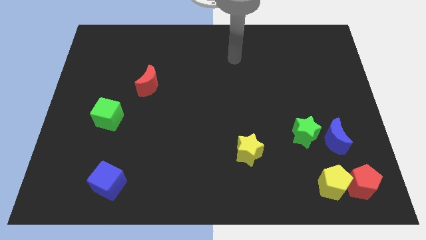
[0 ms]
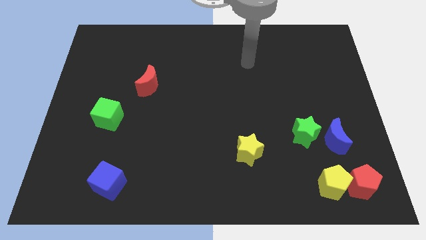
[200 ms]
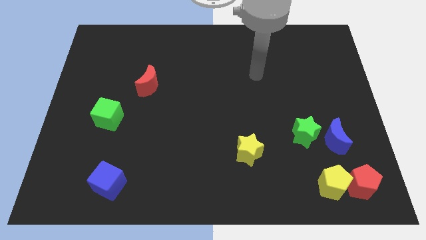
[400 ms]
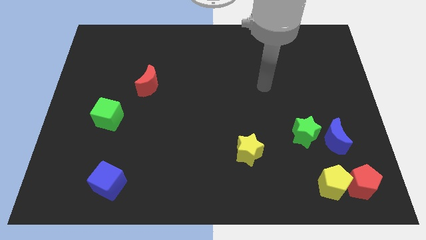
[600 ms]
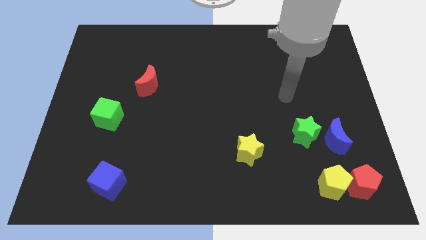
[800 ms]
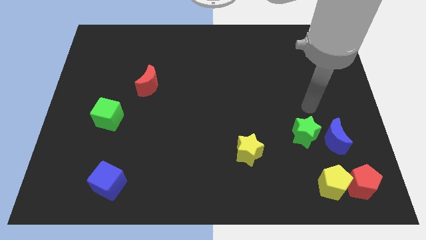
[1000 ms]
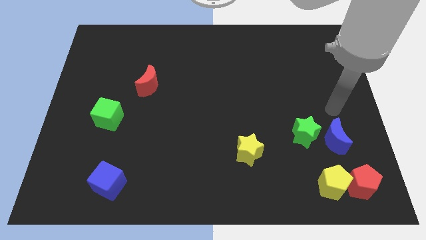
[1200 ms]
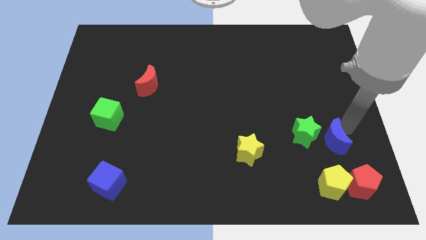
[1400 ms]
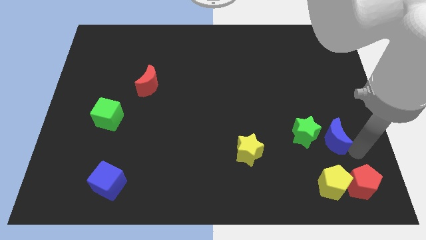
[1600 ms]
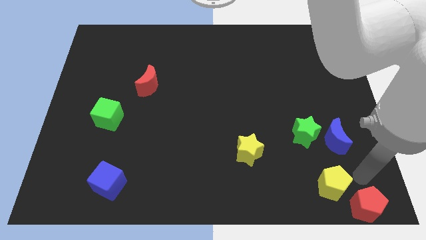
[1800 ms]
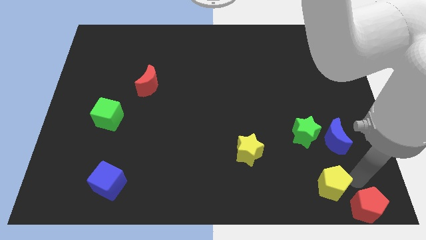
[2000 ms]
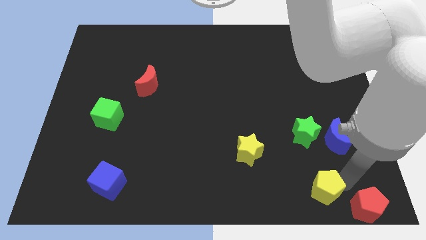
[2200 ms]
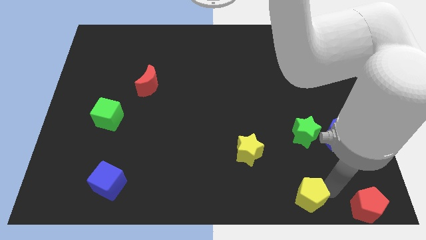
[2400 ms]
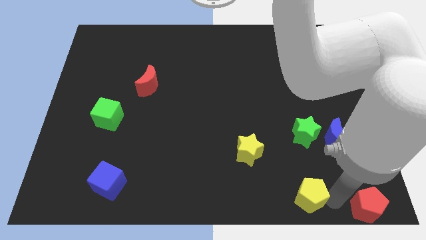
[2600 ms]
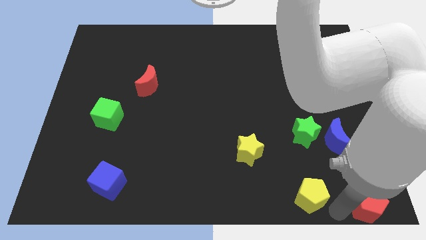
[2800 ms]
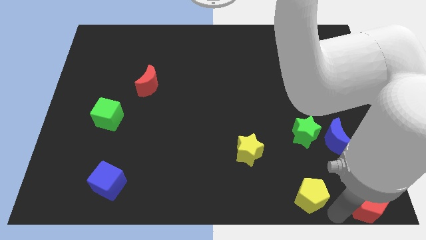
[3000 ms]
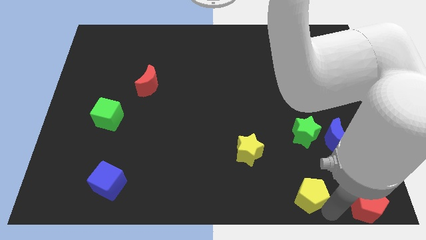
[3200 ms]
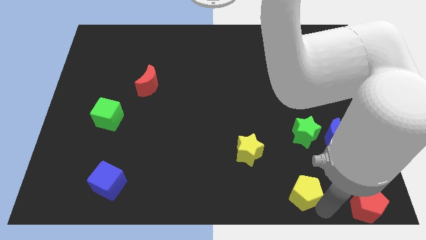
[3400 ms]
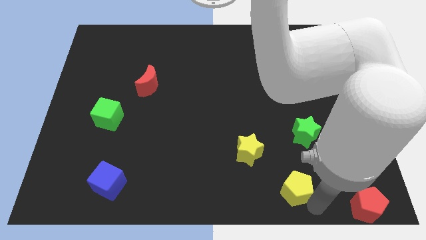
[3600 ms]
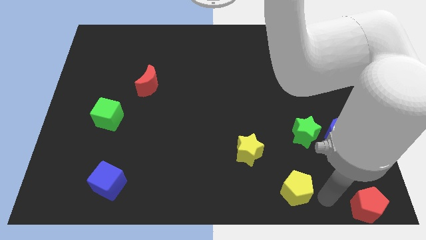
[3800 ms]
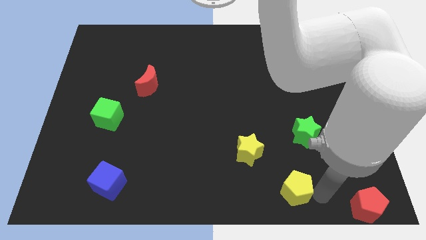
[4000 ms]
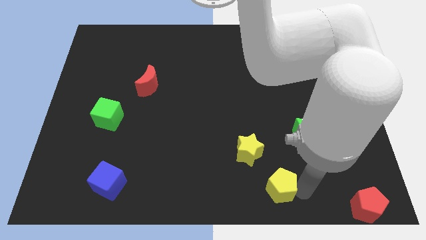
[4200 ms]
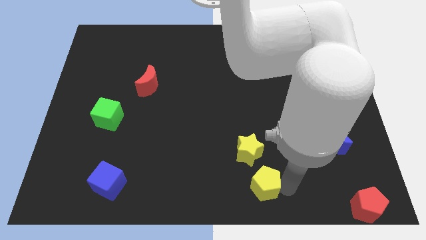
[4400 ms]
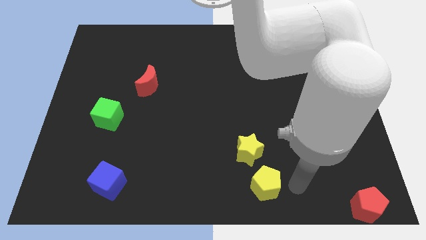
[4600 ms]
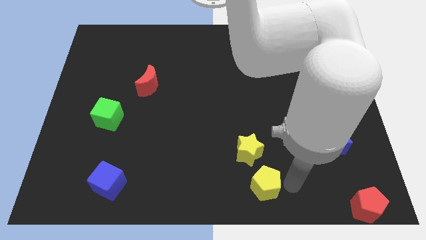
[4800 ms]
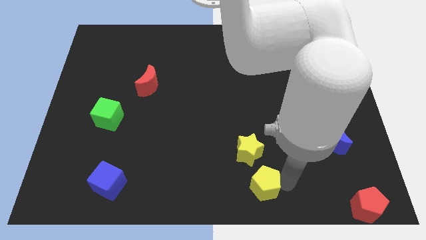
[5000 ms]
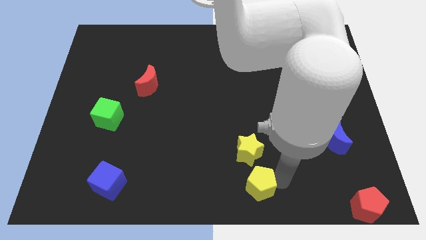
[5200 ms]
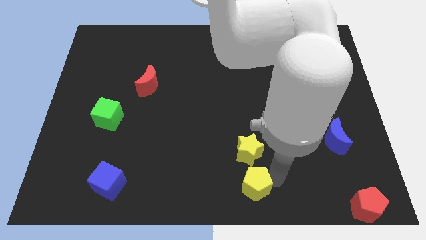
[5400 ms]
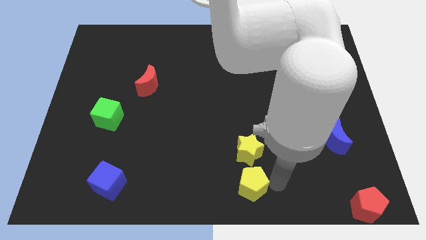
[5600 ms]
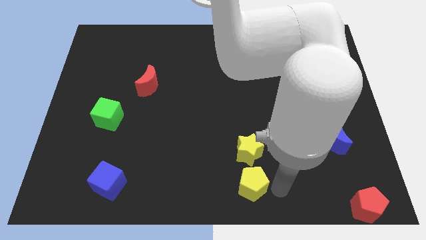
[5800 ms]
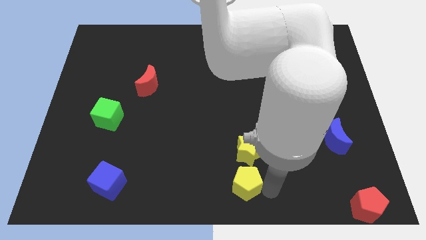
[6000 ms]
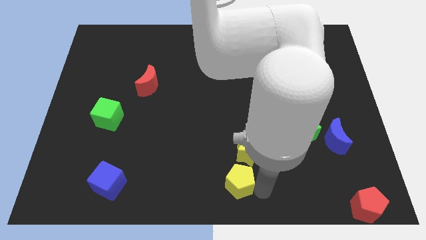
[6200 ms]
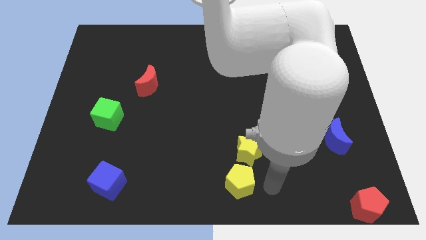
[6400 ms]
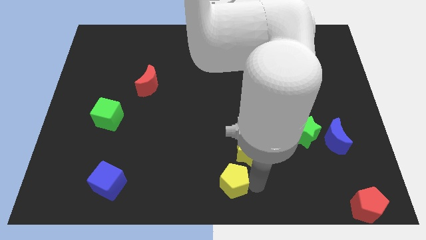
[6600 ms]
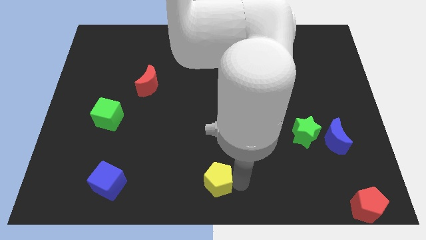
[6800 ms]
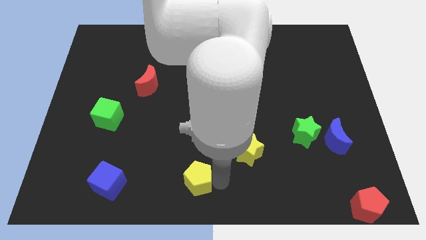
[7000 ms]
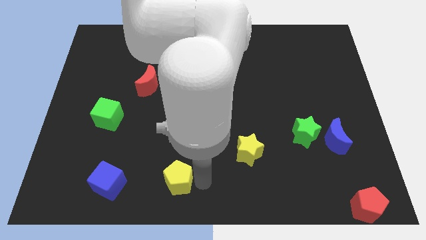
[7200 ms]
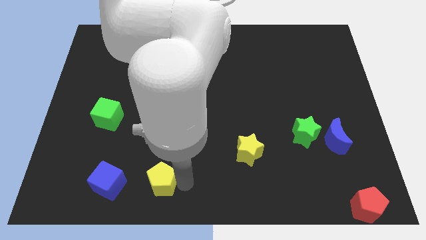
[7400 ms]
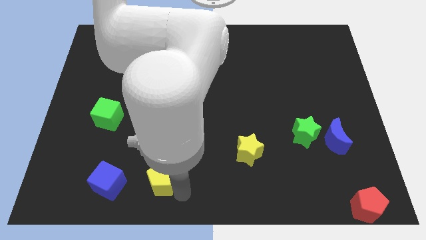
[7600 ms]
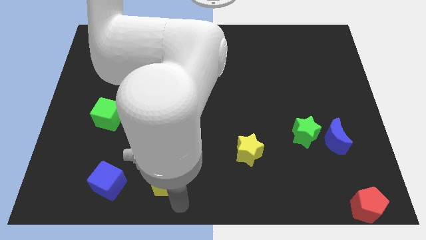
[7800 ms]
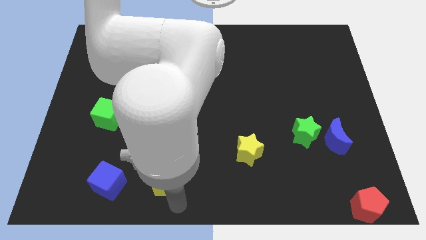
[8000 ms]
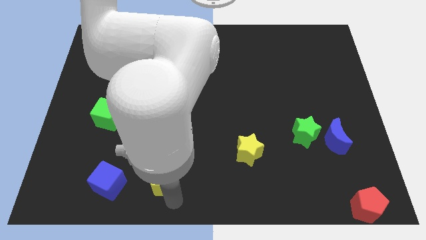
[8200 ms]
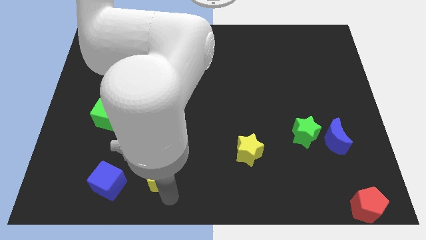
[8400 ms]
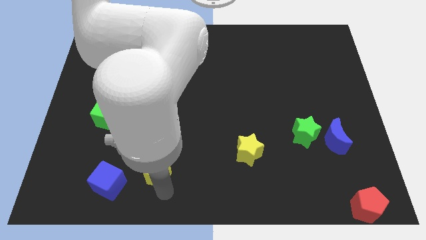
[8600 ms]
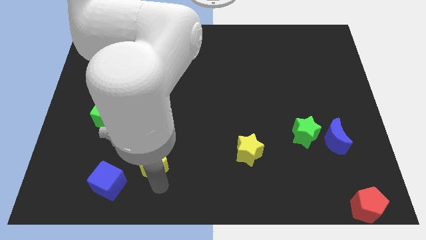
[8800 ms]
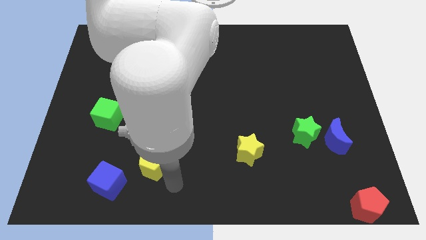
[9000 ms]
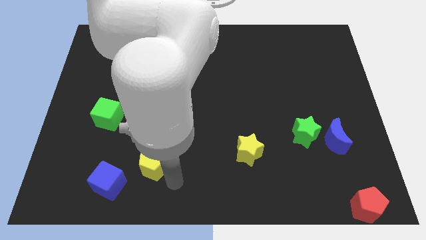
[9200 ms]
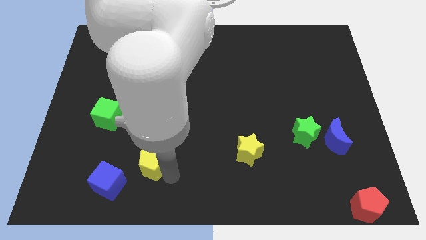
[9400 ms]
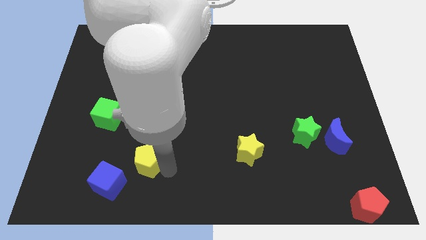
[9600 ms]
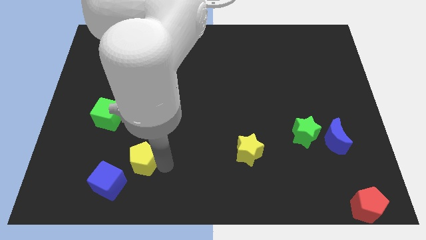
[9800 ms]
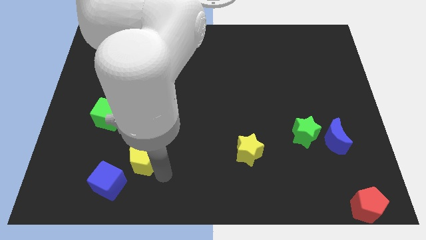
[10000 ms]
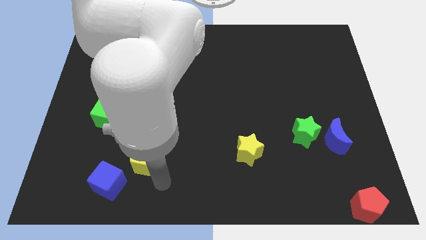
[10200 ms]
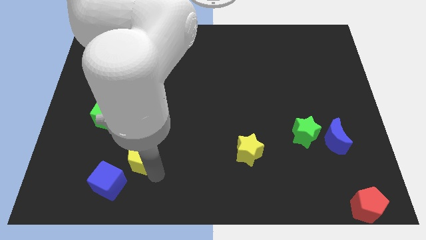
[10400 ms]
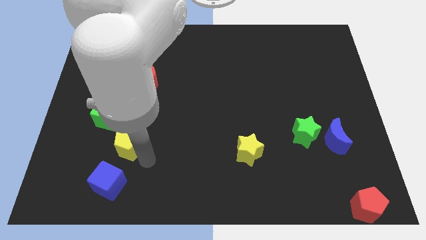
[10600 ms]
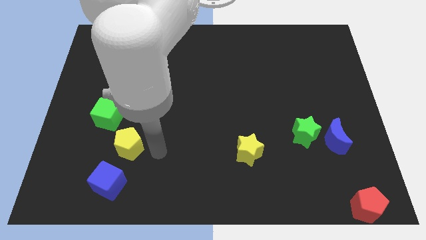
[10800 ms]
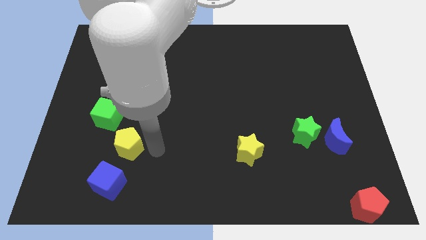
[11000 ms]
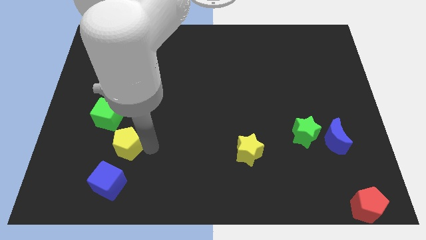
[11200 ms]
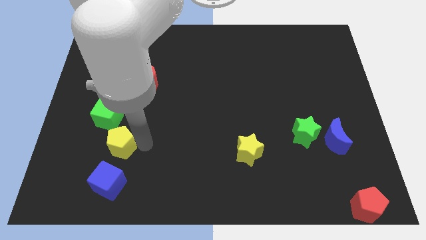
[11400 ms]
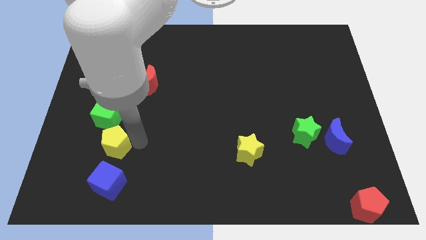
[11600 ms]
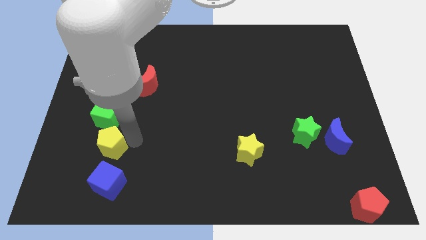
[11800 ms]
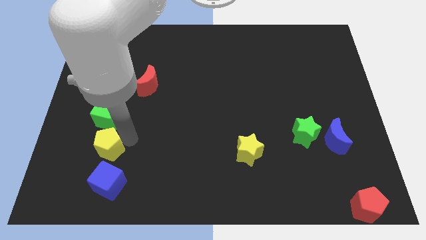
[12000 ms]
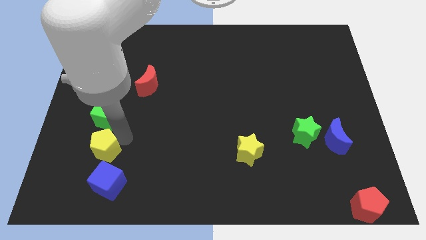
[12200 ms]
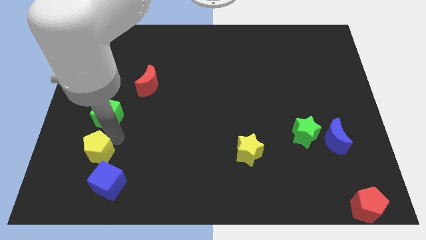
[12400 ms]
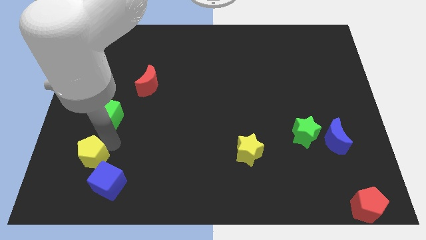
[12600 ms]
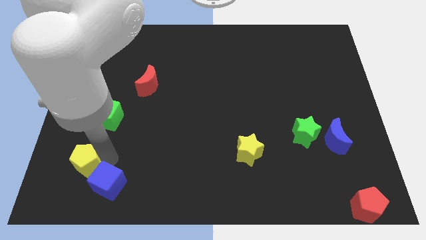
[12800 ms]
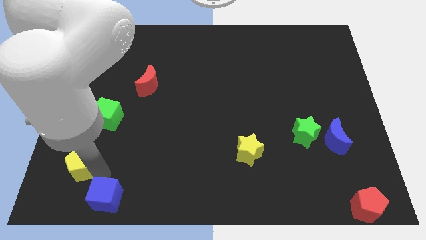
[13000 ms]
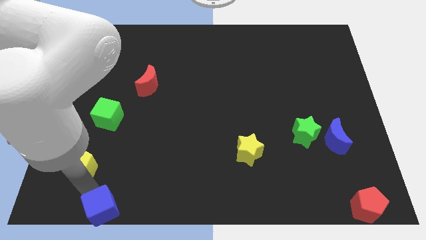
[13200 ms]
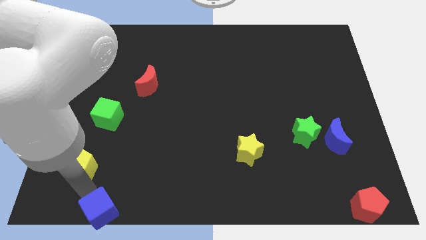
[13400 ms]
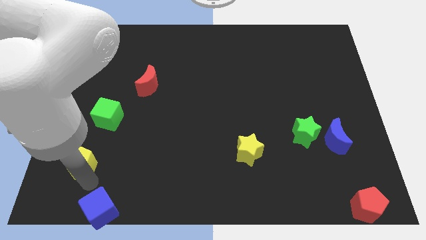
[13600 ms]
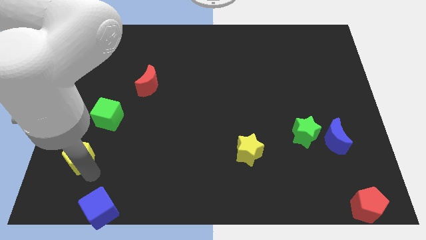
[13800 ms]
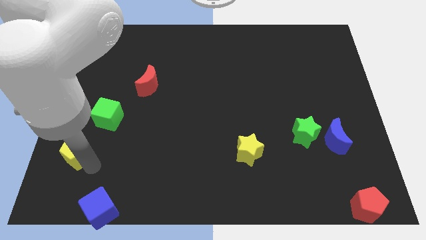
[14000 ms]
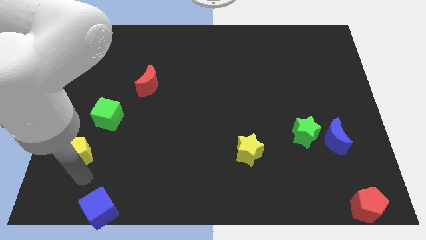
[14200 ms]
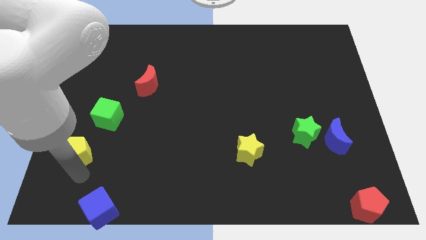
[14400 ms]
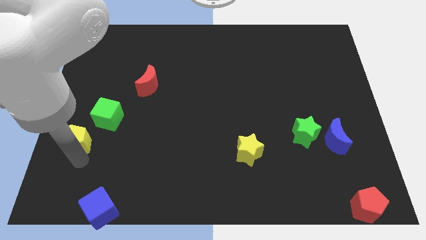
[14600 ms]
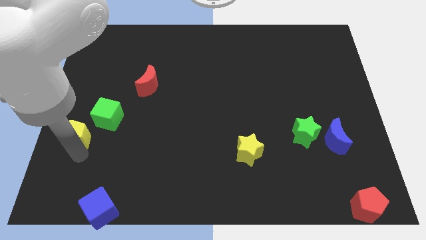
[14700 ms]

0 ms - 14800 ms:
push the yellow pentagon to the left side
